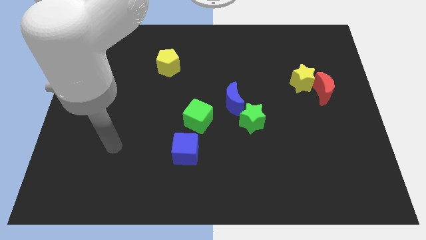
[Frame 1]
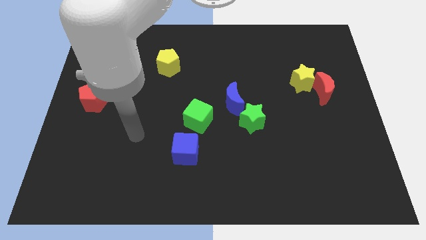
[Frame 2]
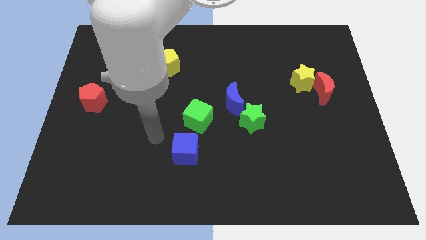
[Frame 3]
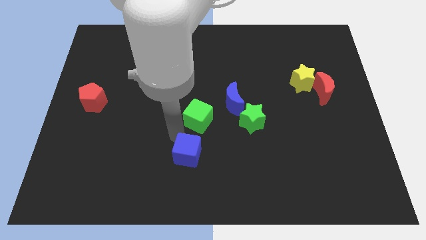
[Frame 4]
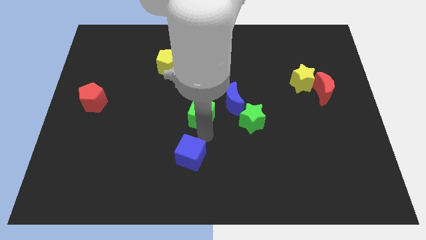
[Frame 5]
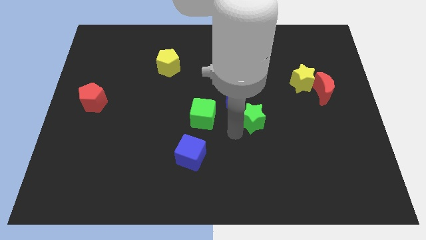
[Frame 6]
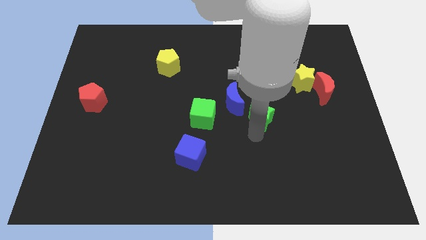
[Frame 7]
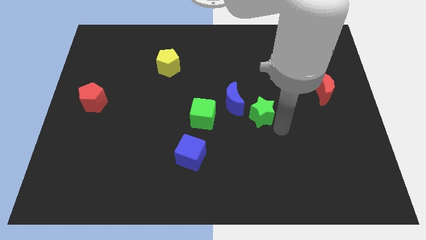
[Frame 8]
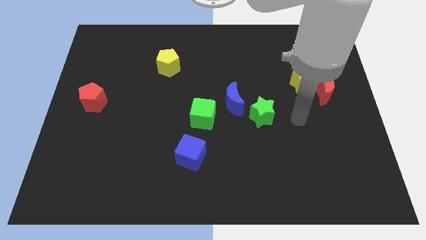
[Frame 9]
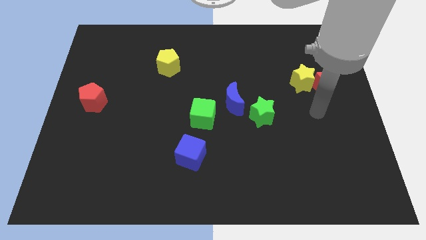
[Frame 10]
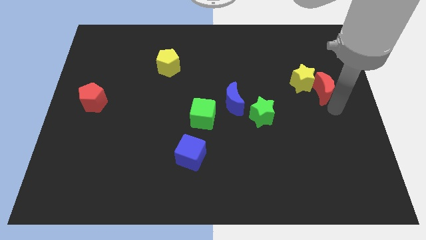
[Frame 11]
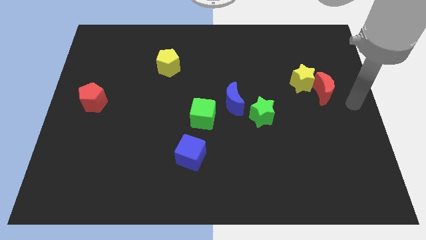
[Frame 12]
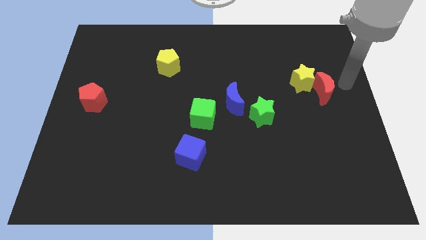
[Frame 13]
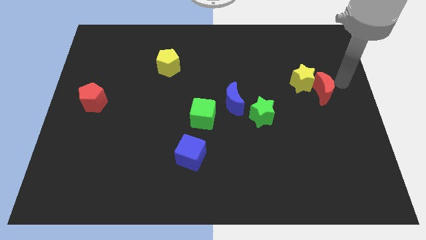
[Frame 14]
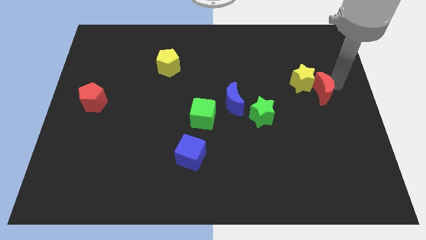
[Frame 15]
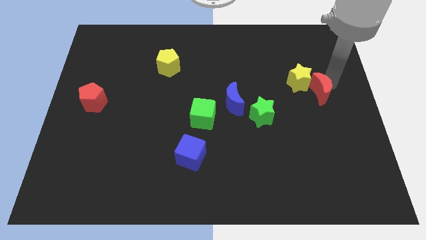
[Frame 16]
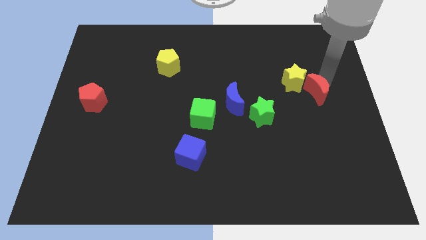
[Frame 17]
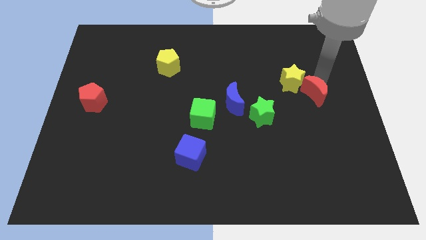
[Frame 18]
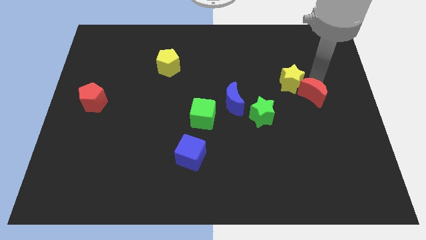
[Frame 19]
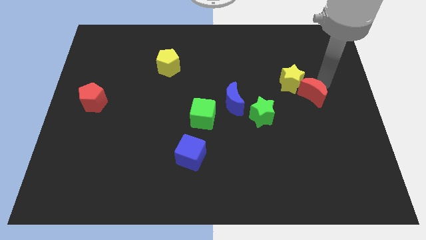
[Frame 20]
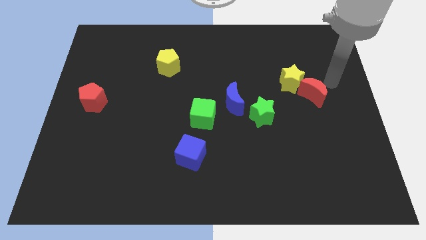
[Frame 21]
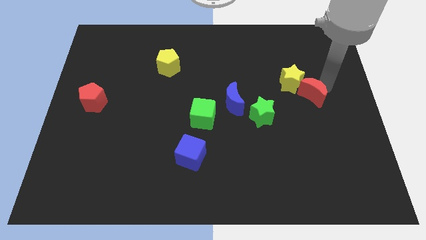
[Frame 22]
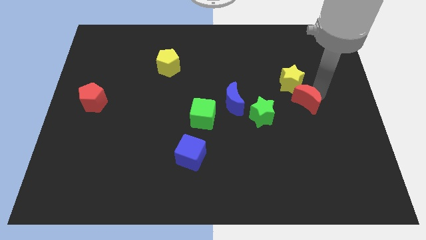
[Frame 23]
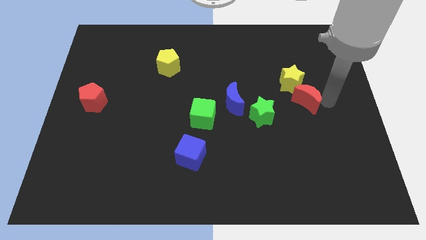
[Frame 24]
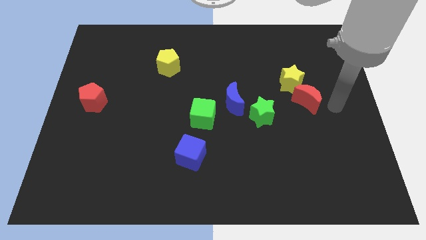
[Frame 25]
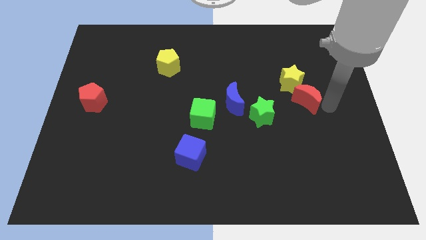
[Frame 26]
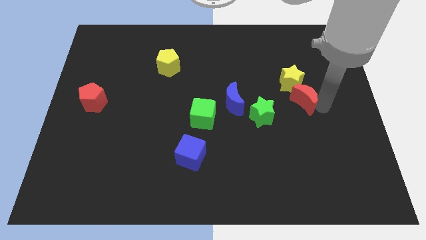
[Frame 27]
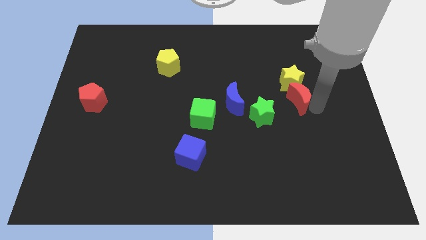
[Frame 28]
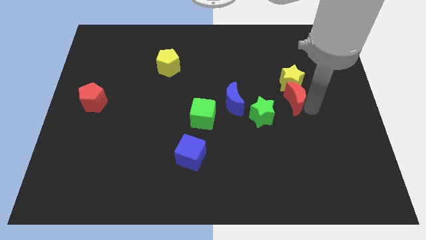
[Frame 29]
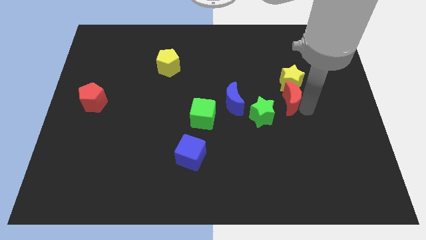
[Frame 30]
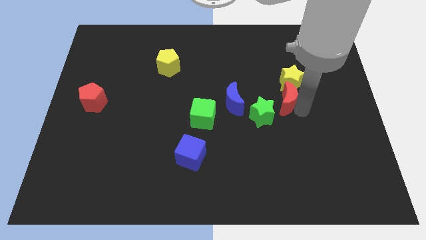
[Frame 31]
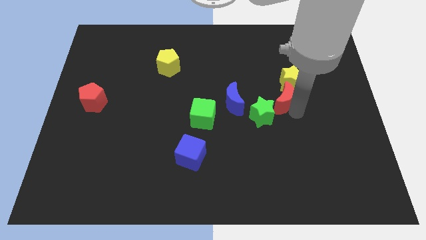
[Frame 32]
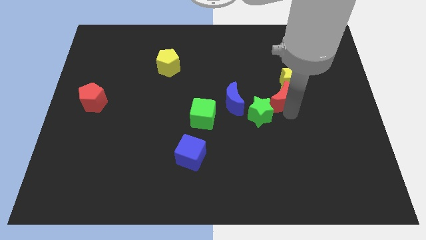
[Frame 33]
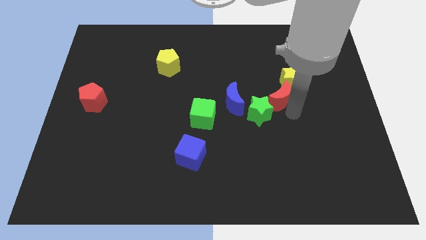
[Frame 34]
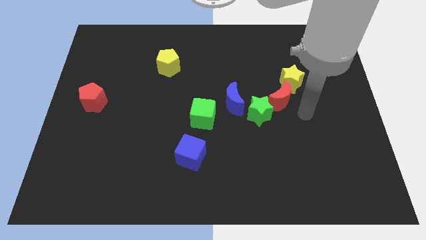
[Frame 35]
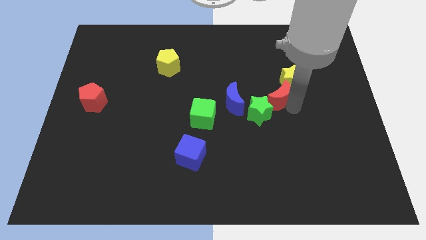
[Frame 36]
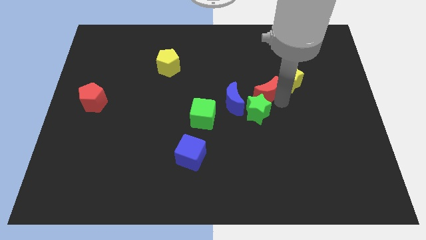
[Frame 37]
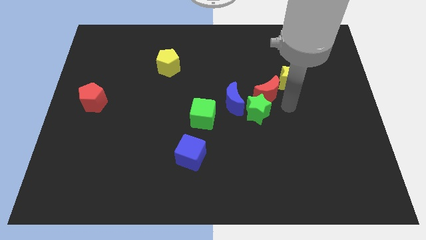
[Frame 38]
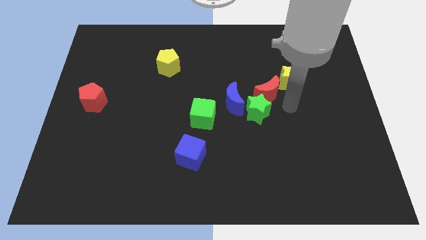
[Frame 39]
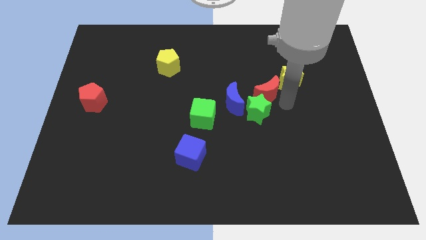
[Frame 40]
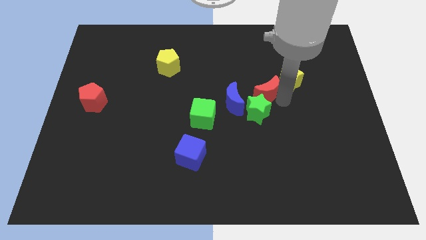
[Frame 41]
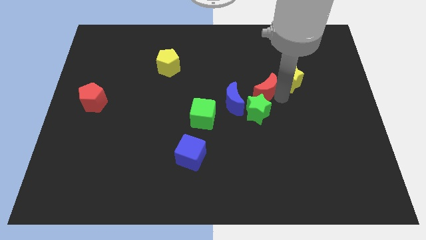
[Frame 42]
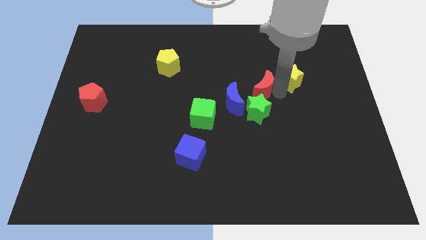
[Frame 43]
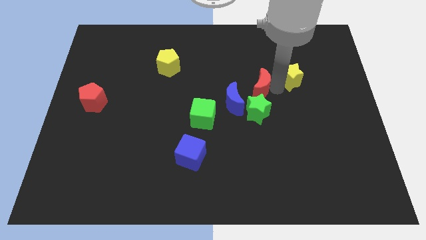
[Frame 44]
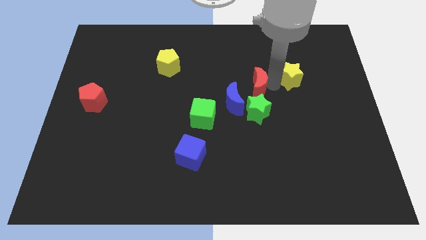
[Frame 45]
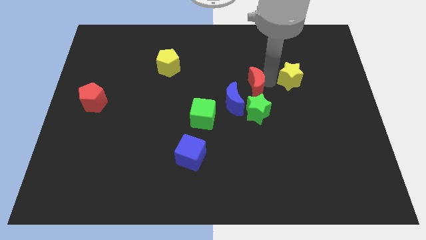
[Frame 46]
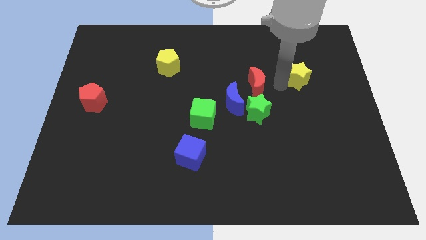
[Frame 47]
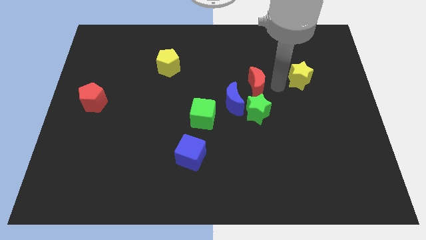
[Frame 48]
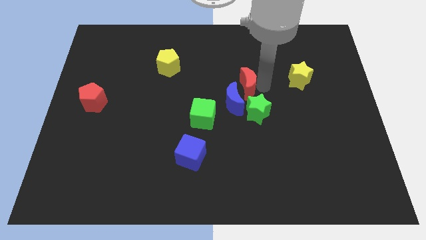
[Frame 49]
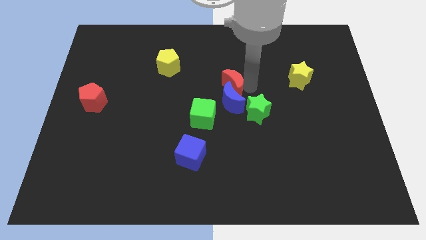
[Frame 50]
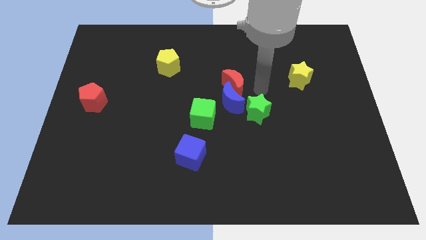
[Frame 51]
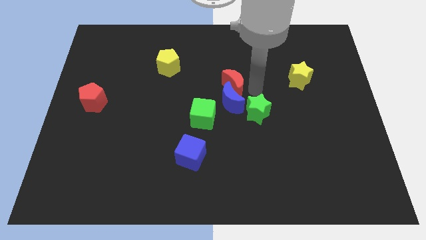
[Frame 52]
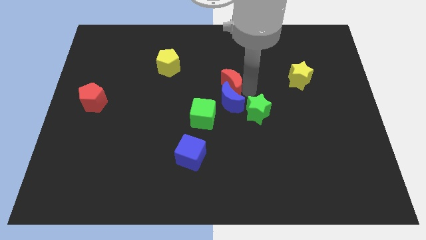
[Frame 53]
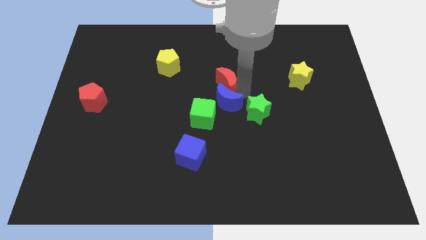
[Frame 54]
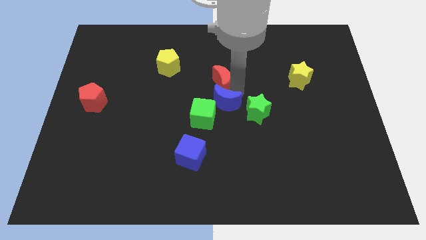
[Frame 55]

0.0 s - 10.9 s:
put the red moon to the top side of the green cube

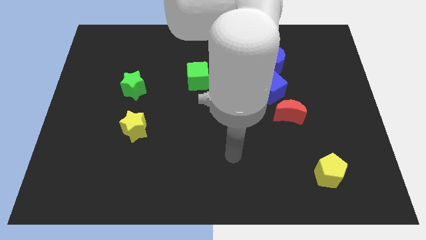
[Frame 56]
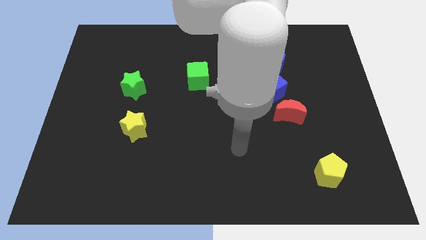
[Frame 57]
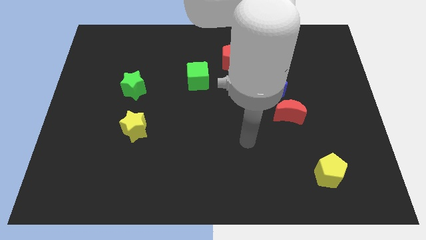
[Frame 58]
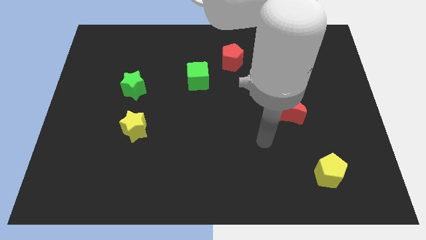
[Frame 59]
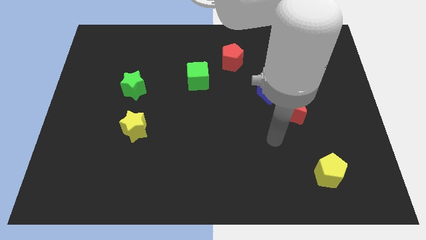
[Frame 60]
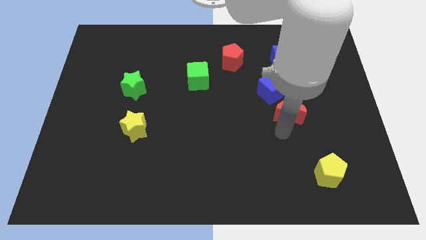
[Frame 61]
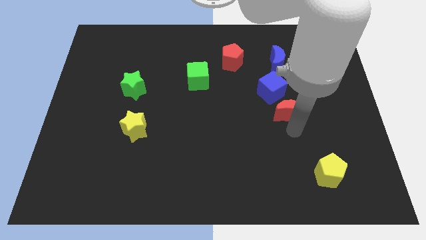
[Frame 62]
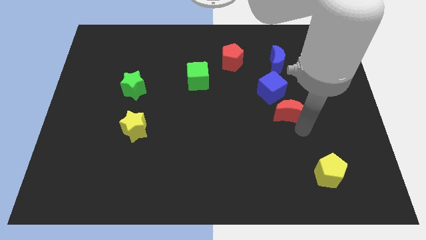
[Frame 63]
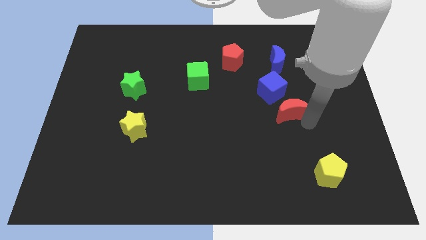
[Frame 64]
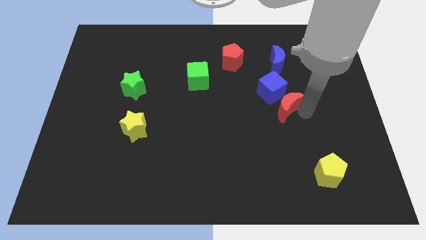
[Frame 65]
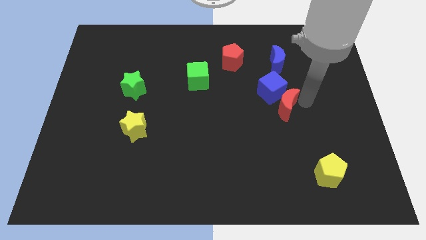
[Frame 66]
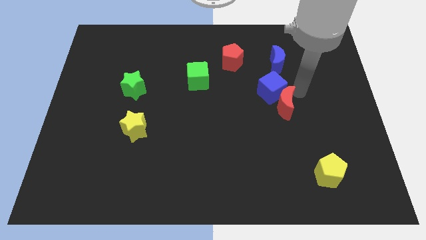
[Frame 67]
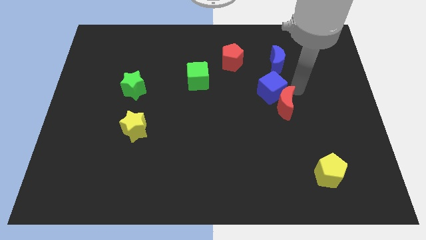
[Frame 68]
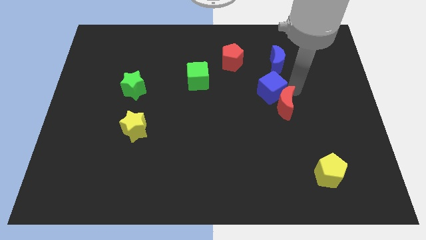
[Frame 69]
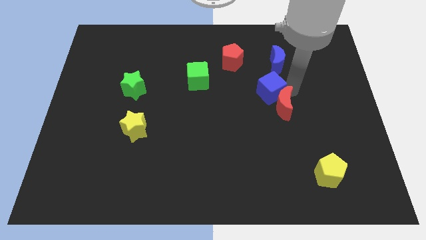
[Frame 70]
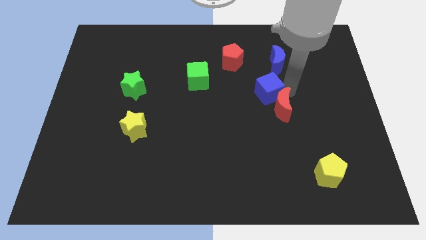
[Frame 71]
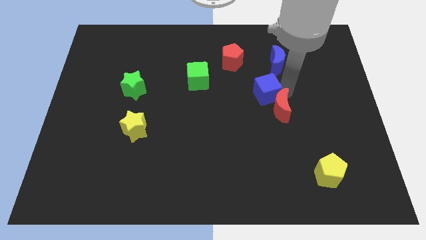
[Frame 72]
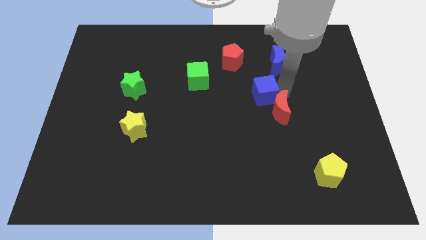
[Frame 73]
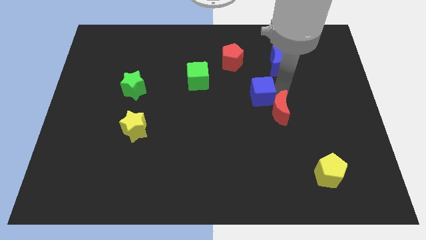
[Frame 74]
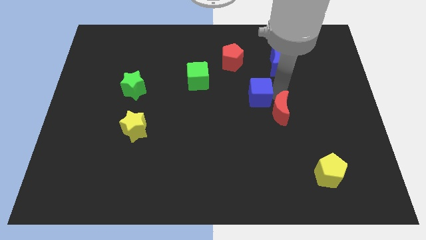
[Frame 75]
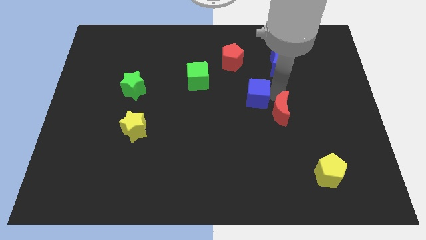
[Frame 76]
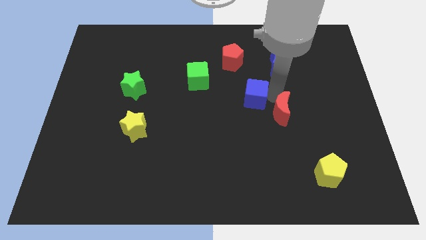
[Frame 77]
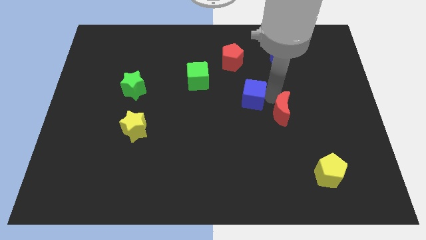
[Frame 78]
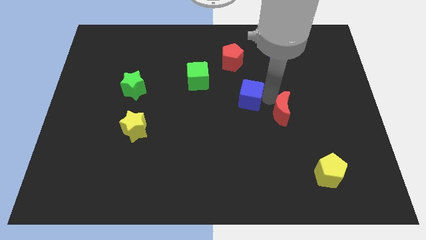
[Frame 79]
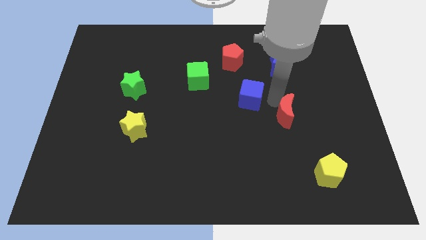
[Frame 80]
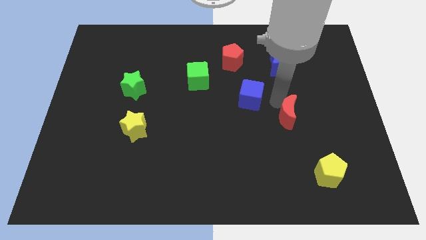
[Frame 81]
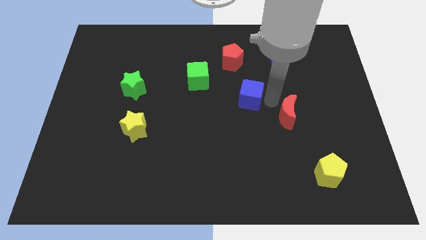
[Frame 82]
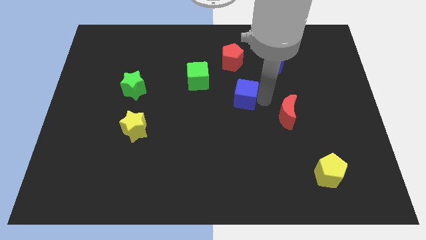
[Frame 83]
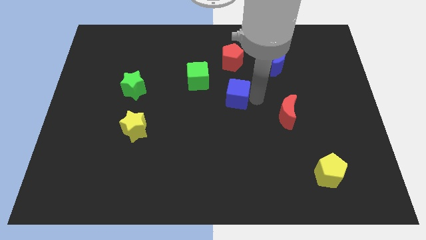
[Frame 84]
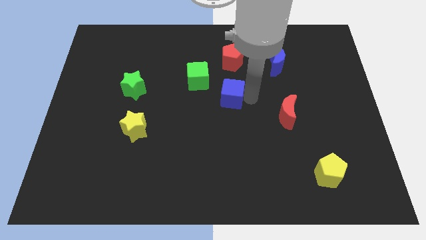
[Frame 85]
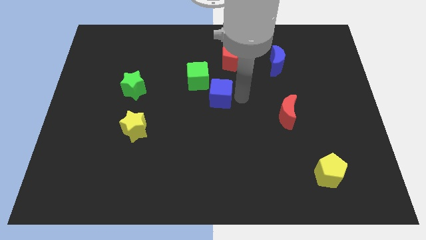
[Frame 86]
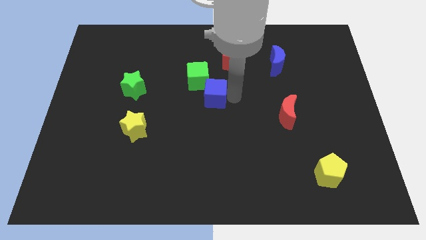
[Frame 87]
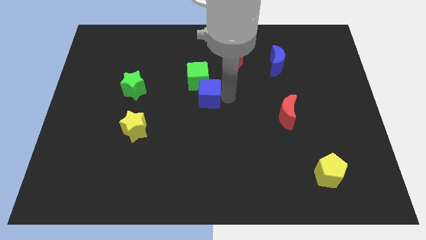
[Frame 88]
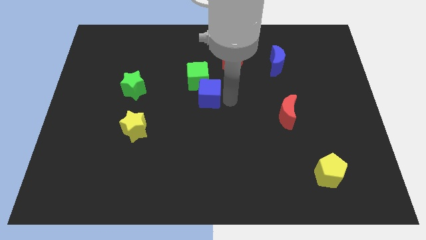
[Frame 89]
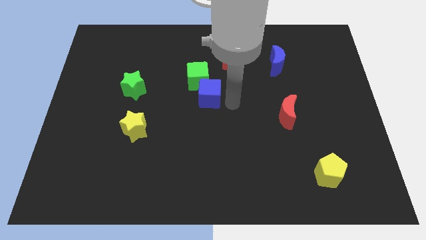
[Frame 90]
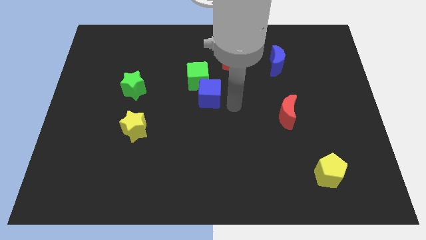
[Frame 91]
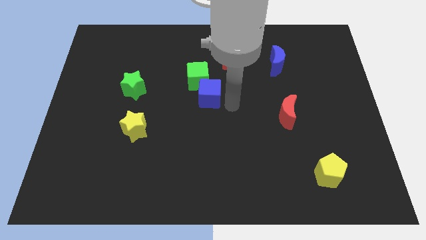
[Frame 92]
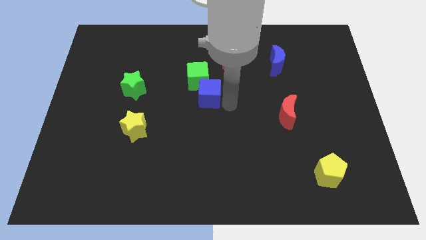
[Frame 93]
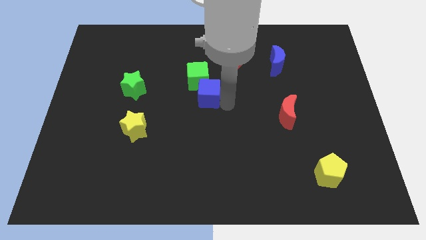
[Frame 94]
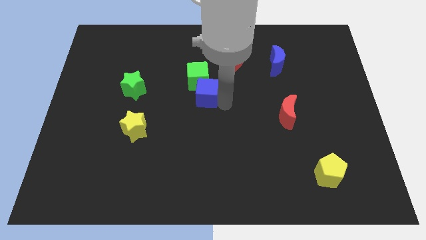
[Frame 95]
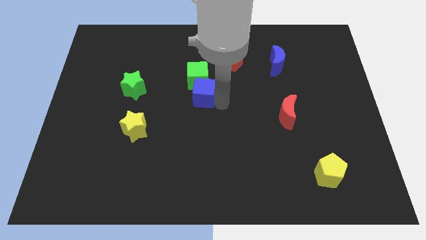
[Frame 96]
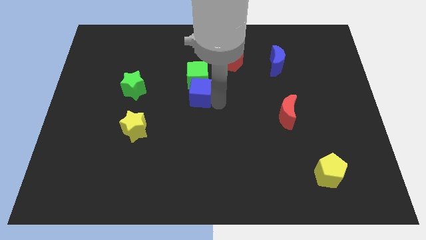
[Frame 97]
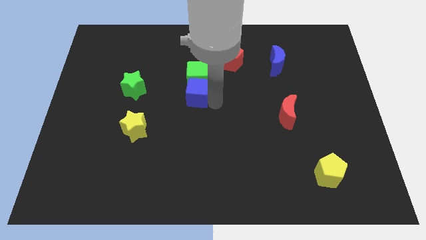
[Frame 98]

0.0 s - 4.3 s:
push the blue cube just right of the green star
